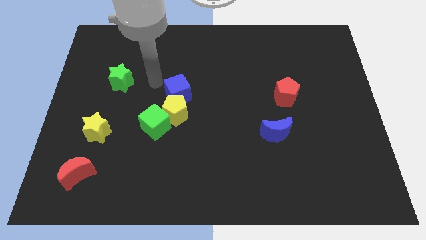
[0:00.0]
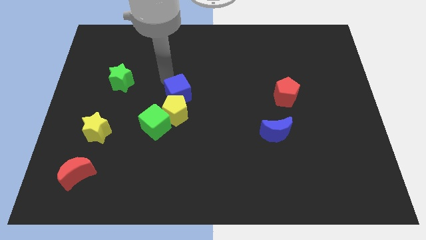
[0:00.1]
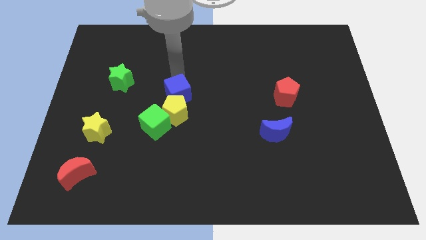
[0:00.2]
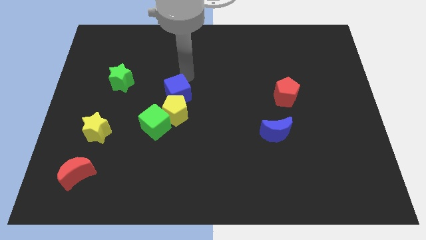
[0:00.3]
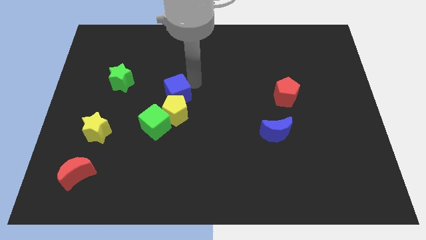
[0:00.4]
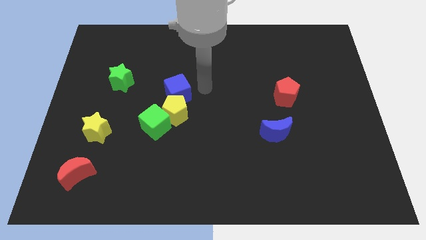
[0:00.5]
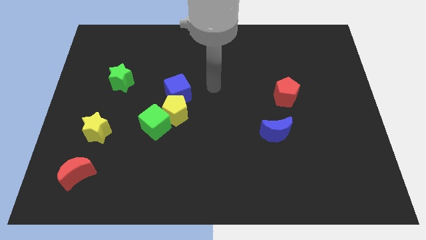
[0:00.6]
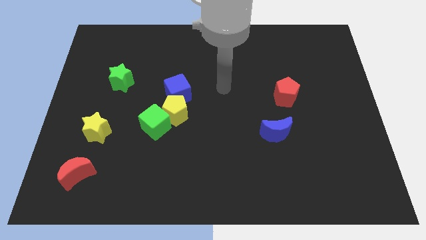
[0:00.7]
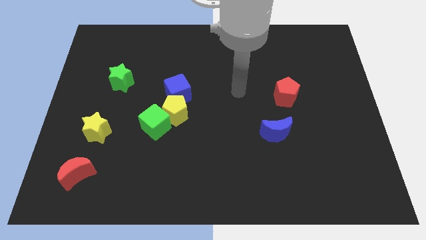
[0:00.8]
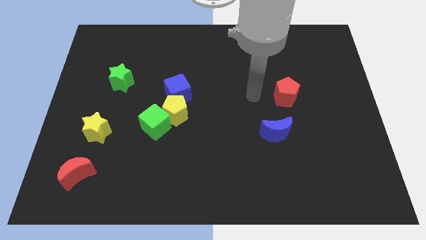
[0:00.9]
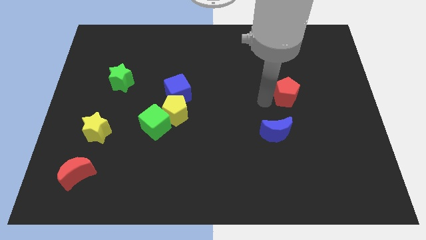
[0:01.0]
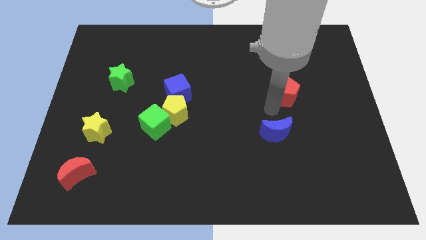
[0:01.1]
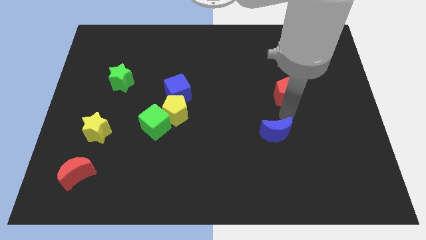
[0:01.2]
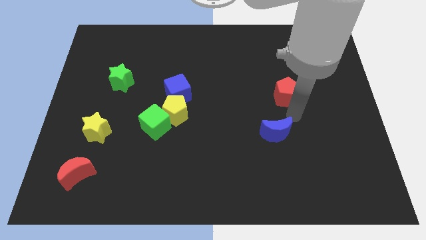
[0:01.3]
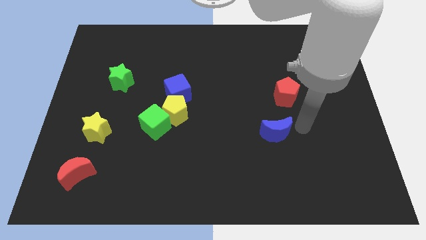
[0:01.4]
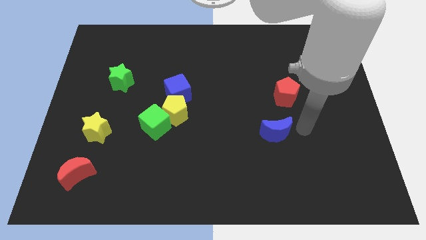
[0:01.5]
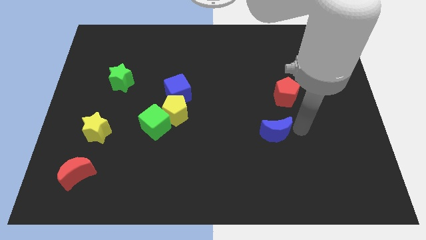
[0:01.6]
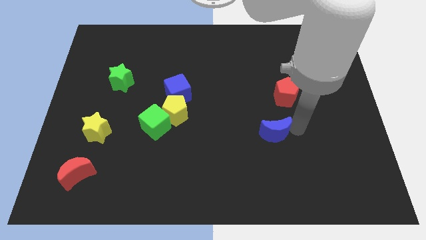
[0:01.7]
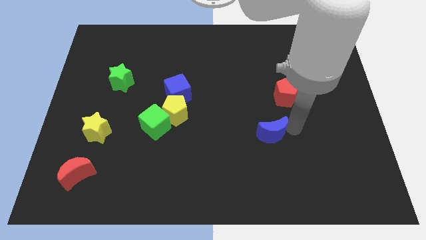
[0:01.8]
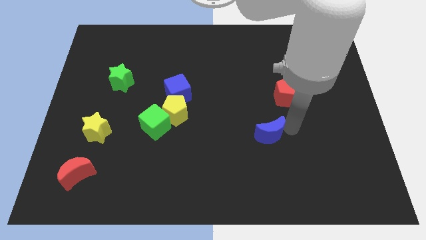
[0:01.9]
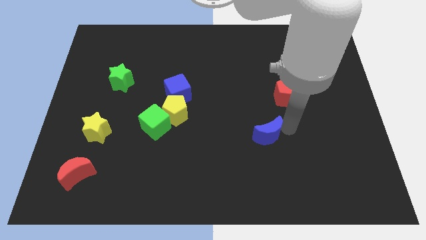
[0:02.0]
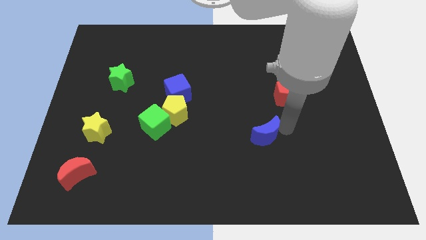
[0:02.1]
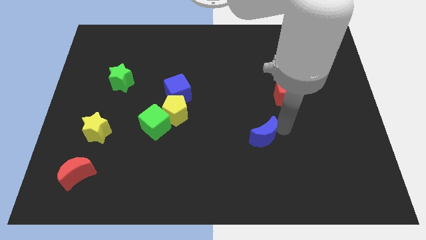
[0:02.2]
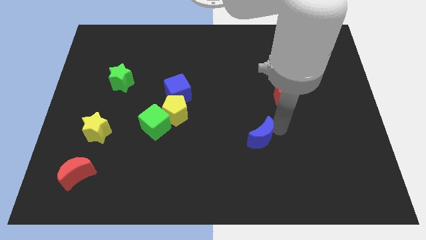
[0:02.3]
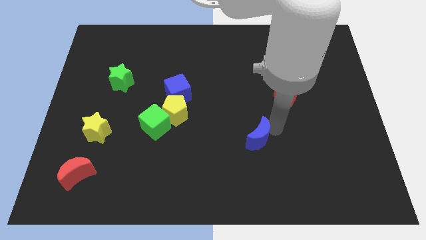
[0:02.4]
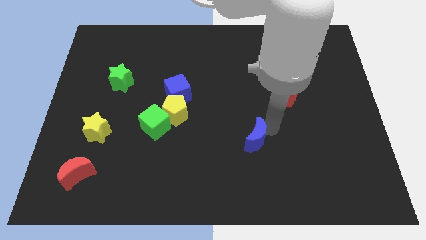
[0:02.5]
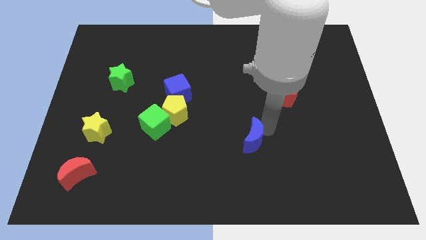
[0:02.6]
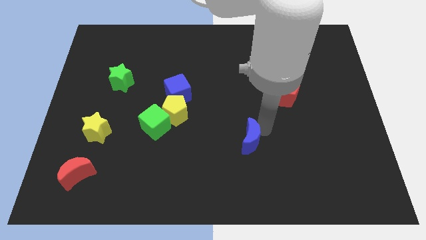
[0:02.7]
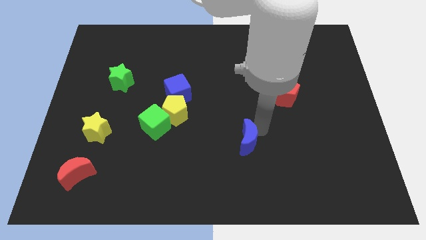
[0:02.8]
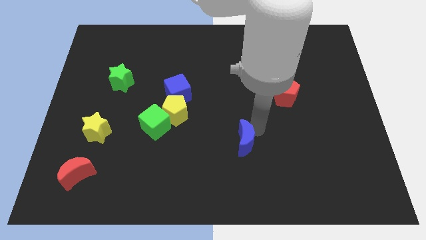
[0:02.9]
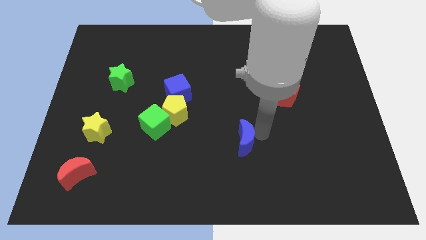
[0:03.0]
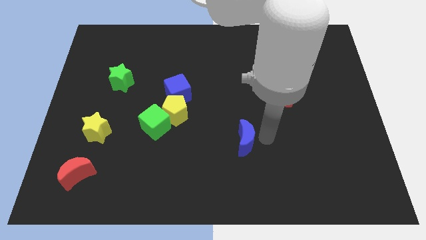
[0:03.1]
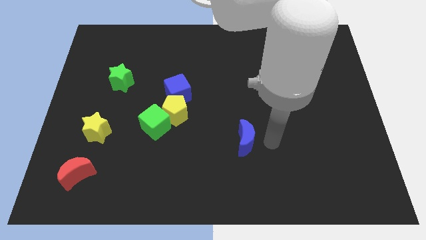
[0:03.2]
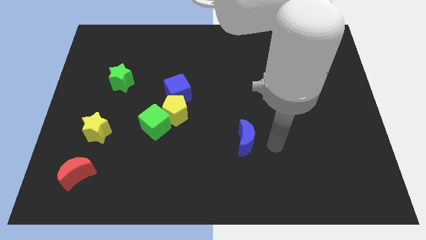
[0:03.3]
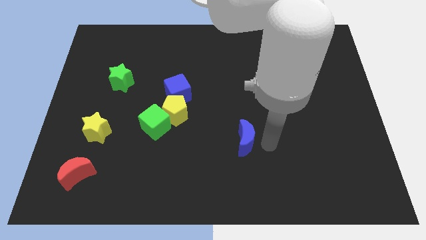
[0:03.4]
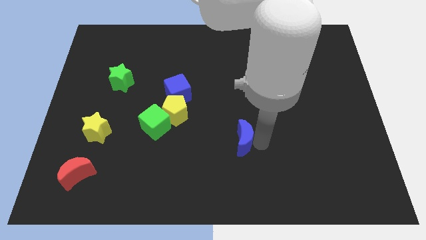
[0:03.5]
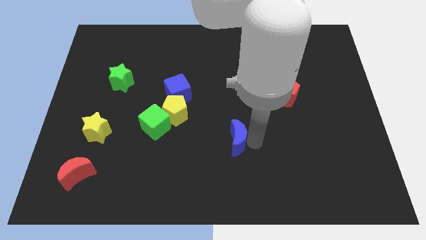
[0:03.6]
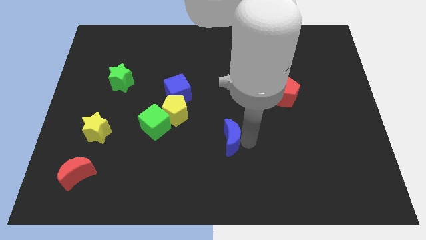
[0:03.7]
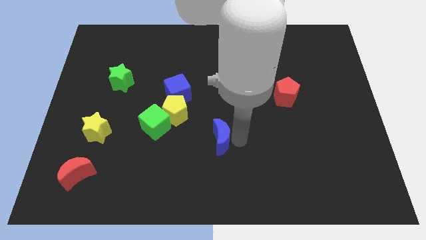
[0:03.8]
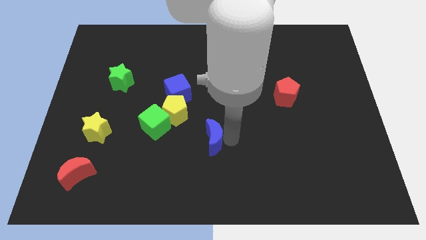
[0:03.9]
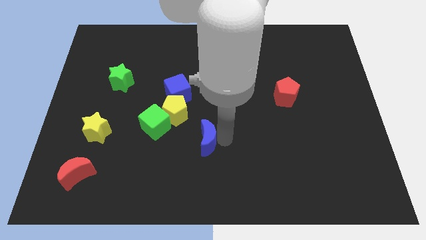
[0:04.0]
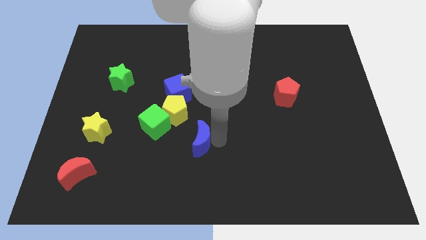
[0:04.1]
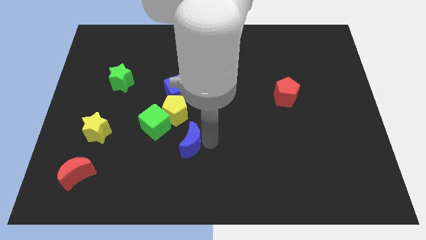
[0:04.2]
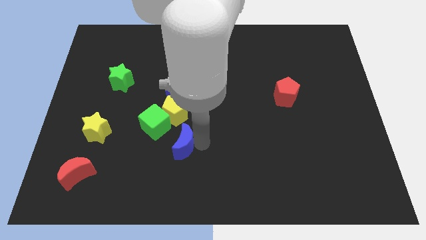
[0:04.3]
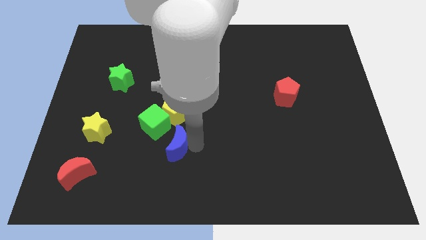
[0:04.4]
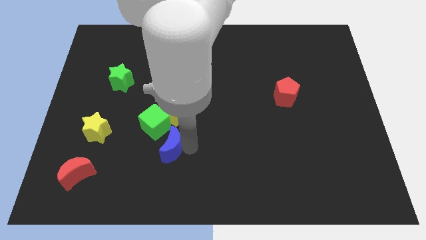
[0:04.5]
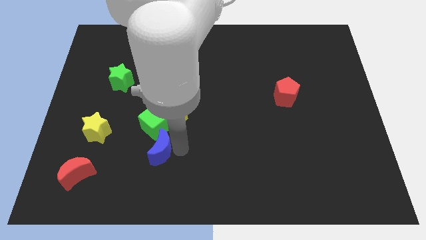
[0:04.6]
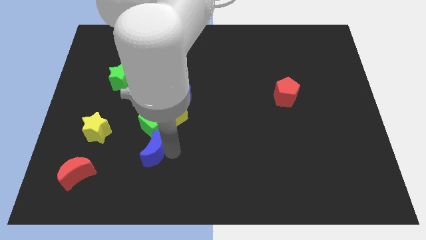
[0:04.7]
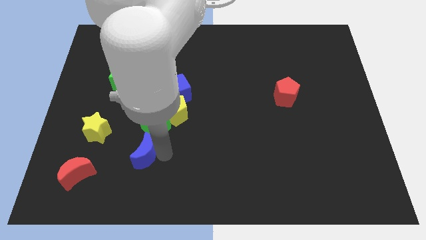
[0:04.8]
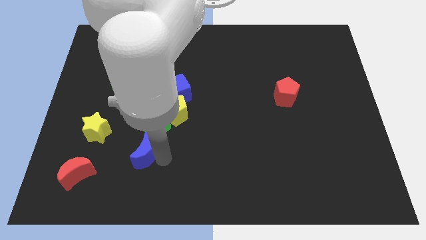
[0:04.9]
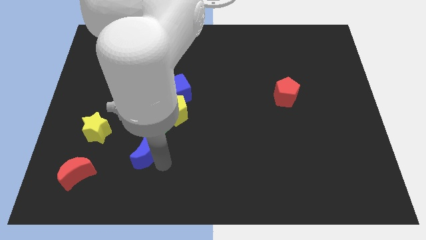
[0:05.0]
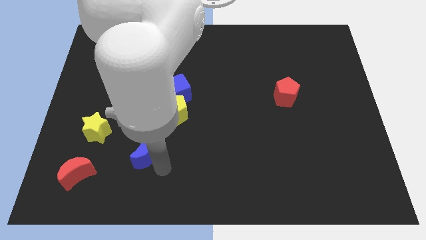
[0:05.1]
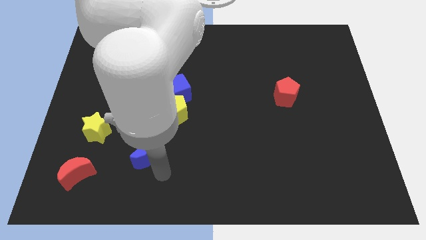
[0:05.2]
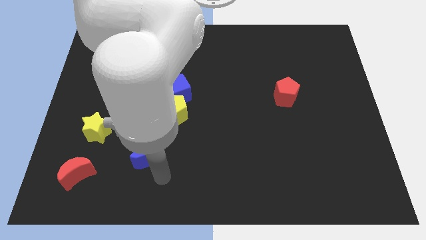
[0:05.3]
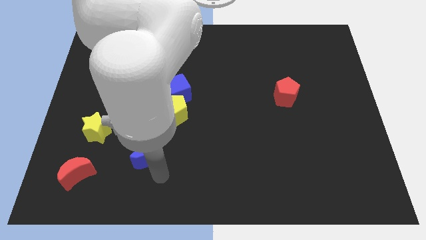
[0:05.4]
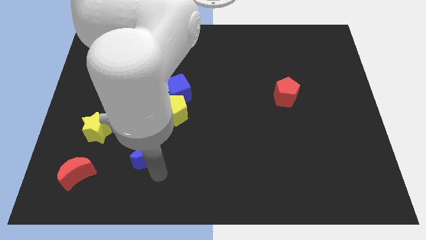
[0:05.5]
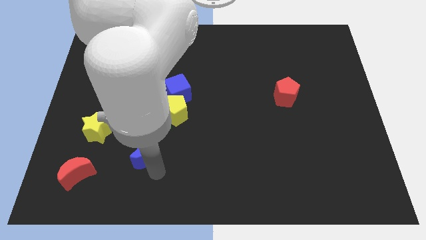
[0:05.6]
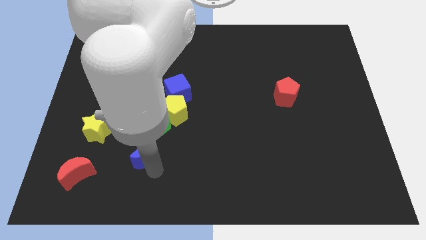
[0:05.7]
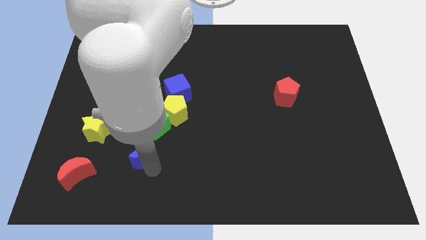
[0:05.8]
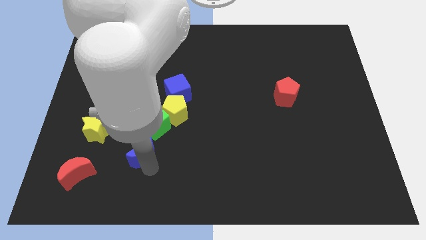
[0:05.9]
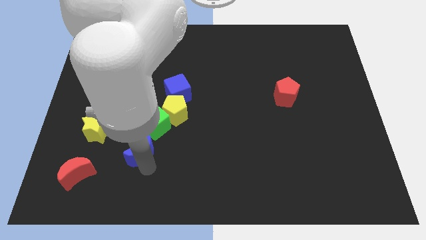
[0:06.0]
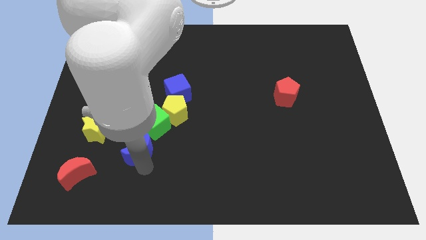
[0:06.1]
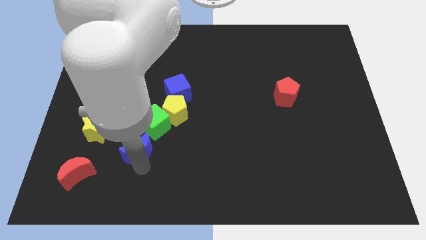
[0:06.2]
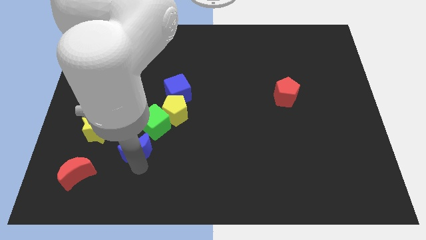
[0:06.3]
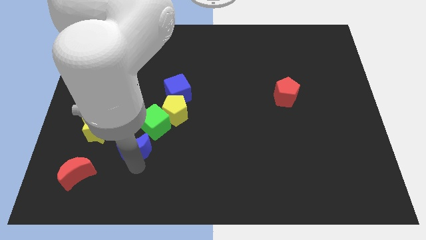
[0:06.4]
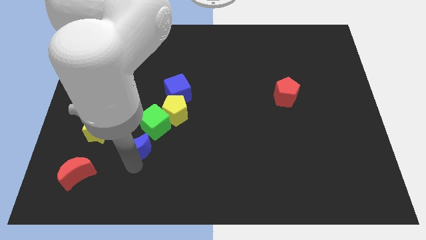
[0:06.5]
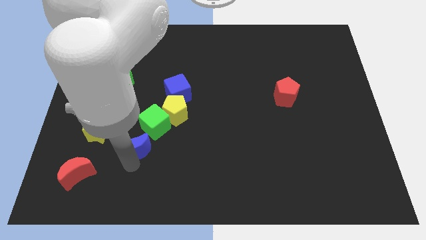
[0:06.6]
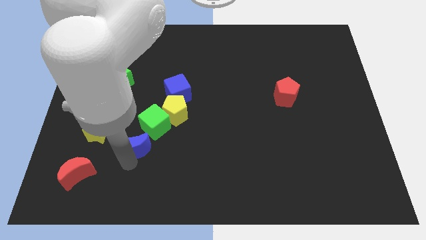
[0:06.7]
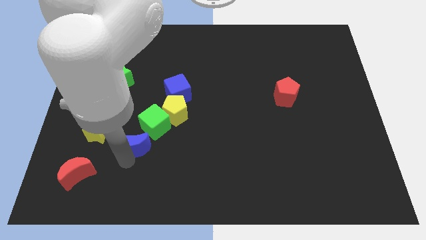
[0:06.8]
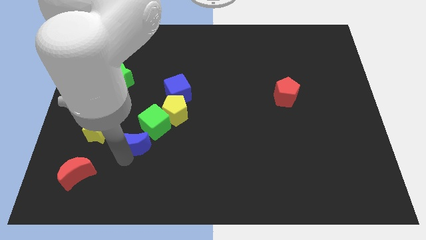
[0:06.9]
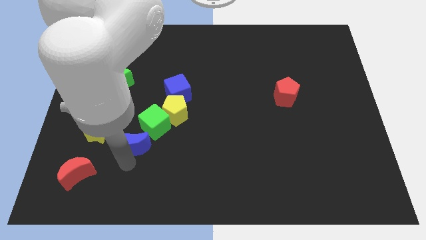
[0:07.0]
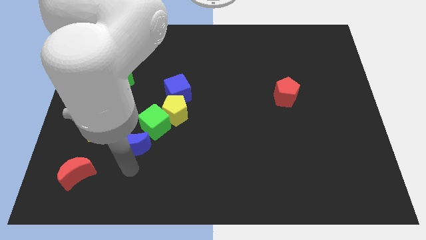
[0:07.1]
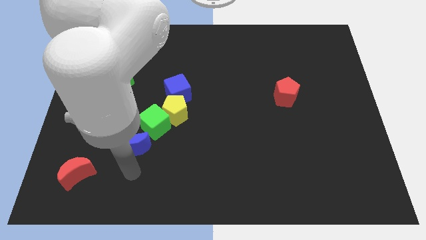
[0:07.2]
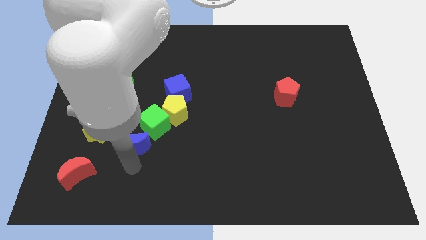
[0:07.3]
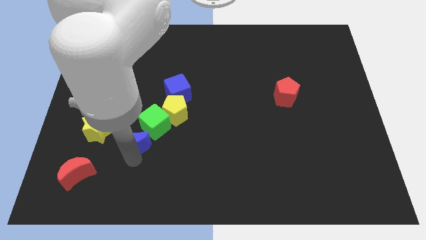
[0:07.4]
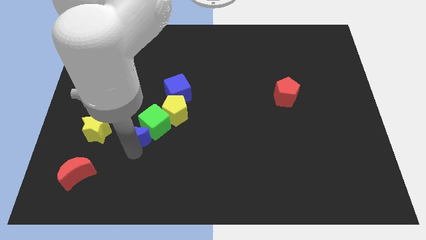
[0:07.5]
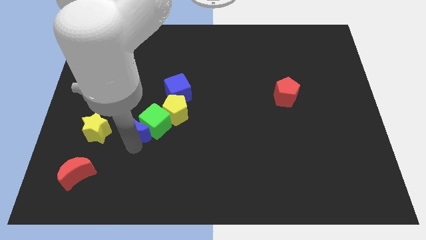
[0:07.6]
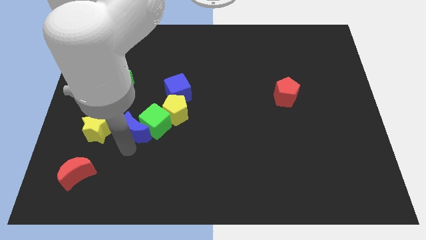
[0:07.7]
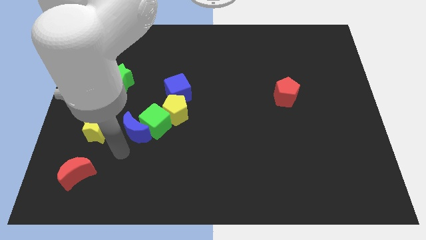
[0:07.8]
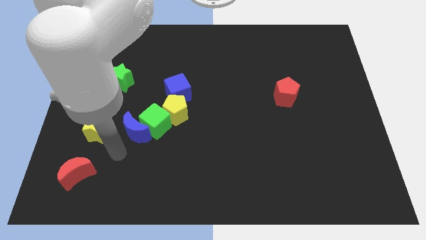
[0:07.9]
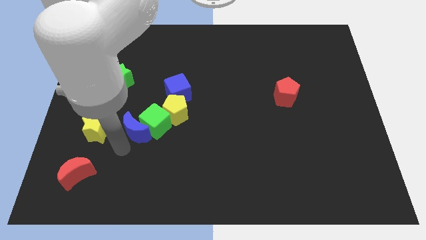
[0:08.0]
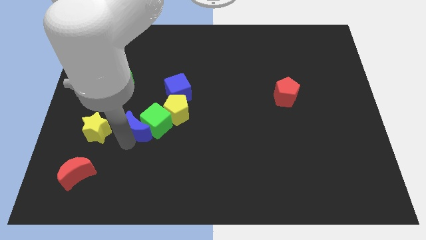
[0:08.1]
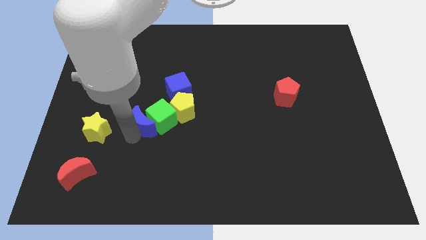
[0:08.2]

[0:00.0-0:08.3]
put the blue moon to the bottom left side of the blue cube
